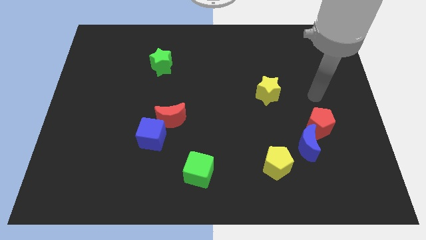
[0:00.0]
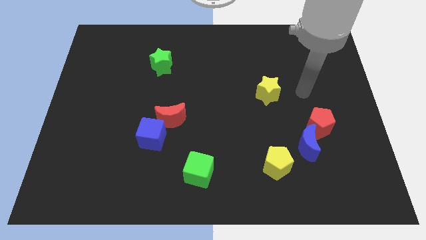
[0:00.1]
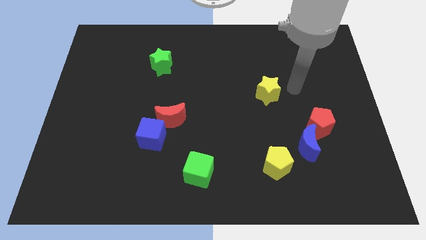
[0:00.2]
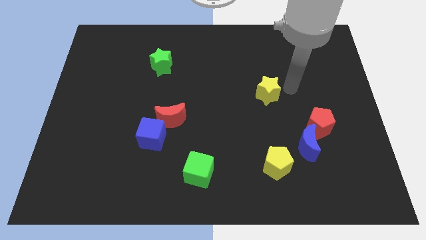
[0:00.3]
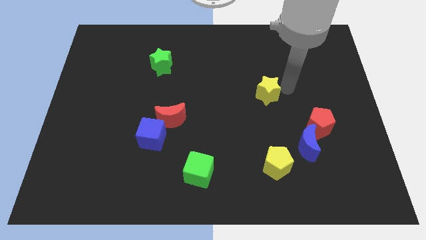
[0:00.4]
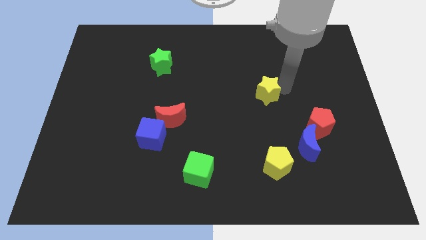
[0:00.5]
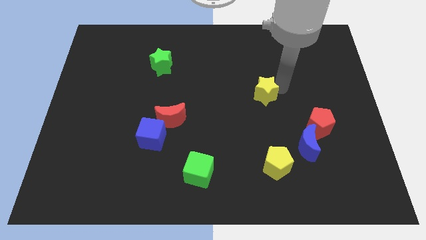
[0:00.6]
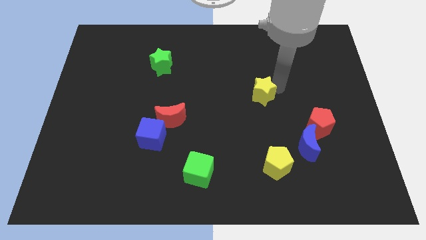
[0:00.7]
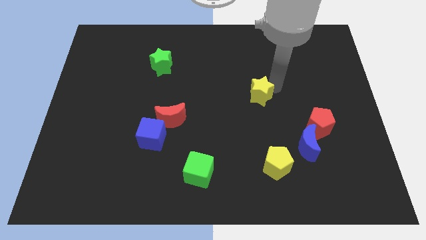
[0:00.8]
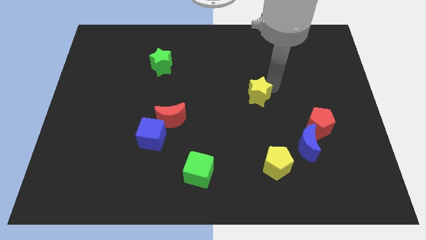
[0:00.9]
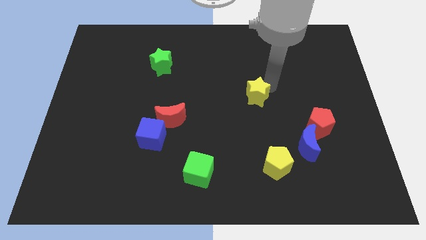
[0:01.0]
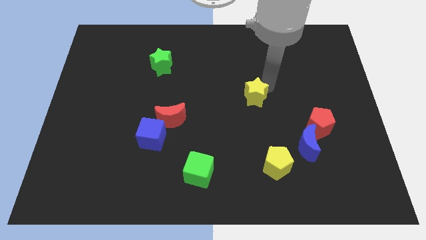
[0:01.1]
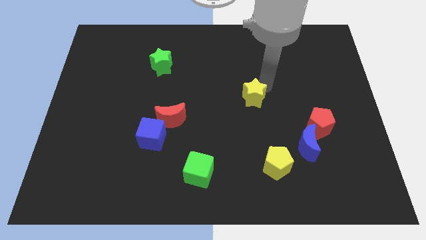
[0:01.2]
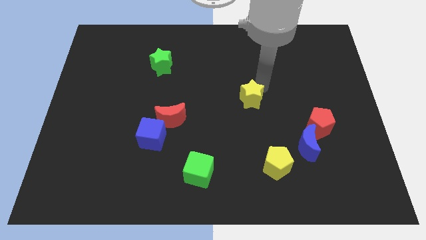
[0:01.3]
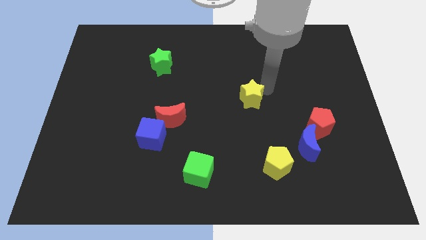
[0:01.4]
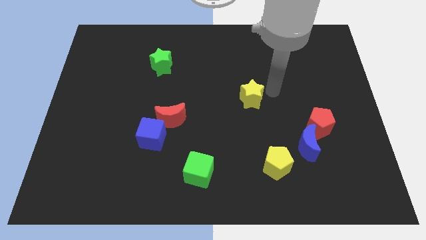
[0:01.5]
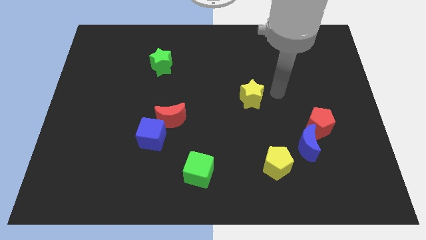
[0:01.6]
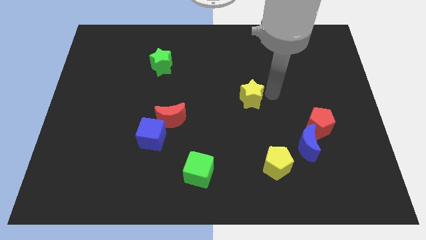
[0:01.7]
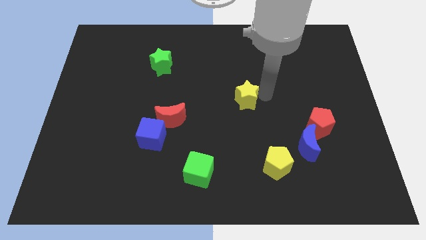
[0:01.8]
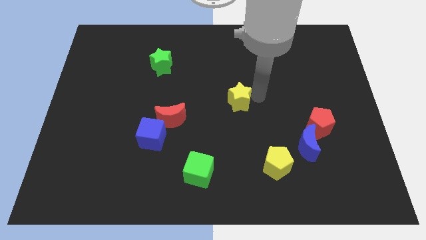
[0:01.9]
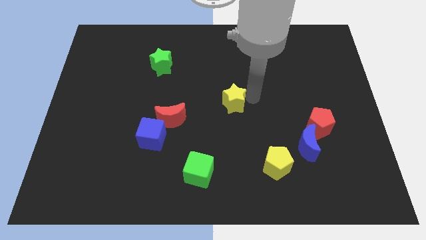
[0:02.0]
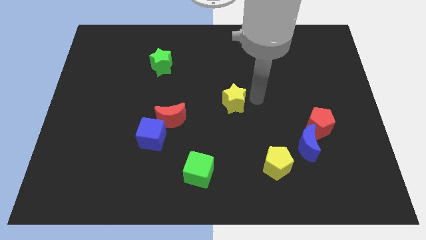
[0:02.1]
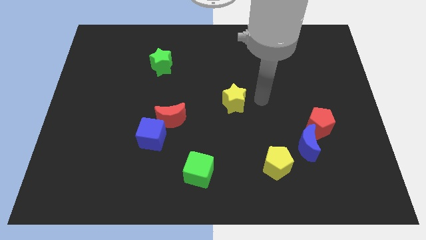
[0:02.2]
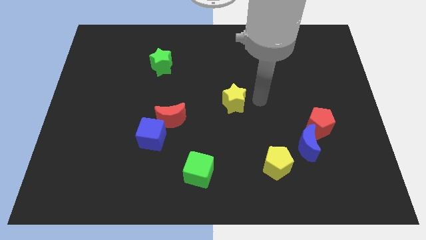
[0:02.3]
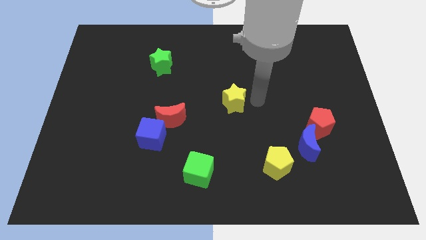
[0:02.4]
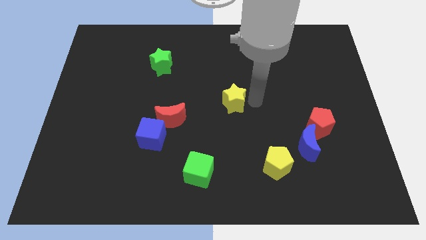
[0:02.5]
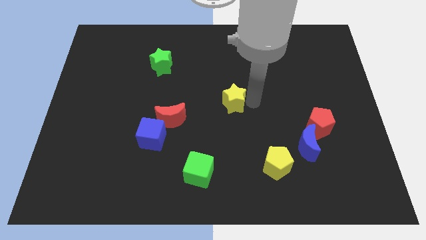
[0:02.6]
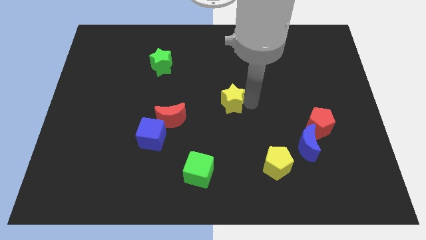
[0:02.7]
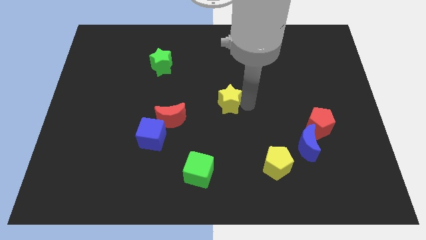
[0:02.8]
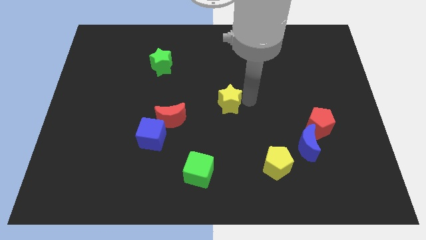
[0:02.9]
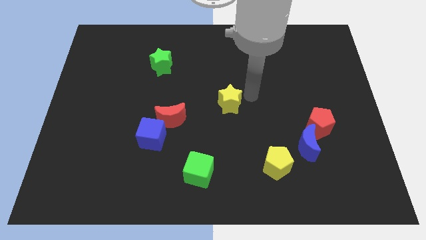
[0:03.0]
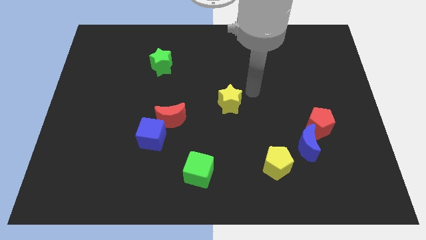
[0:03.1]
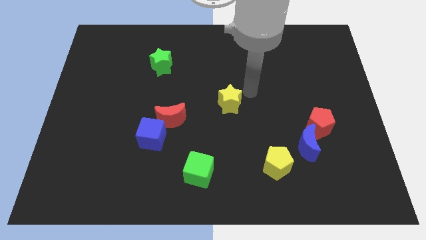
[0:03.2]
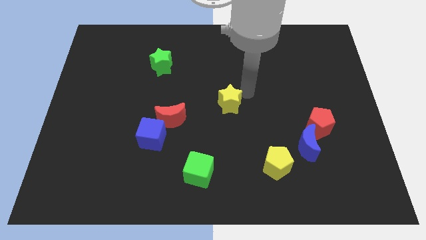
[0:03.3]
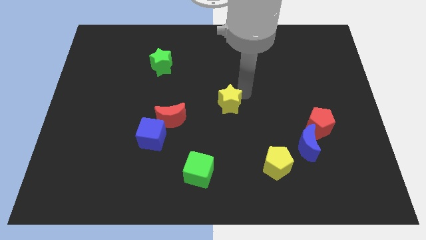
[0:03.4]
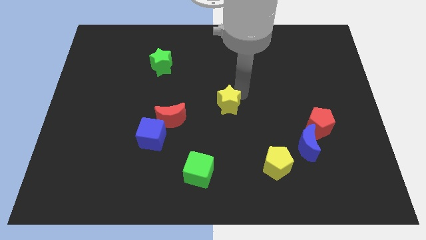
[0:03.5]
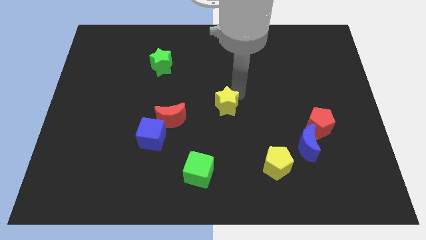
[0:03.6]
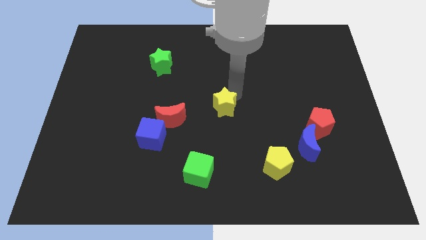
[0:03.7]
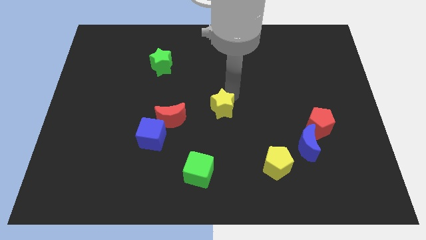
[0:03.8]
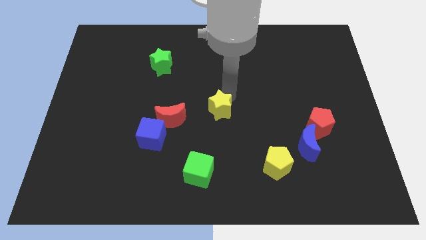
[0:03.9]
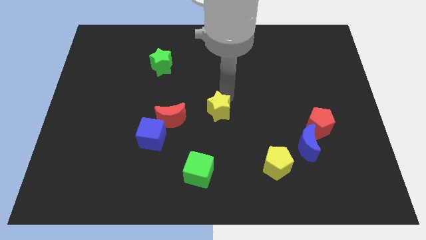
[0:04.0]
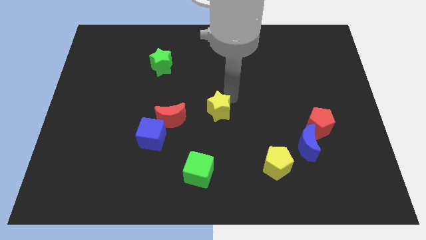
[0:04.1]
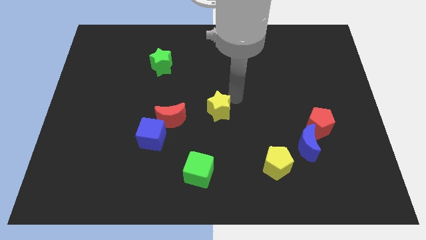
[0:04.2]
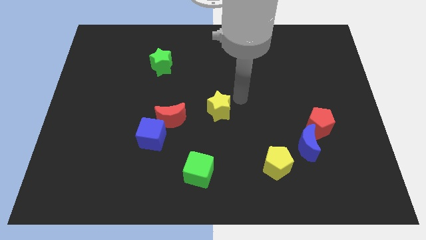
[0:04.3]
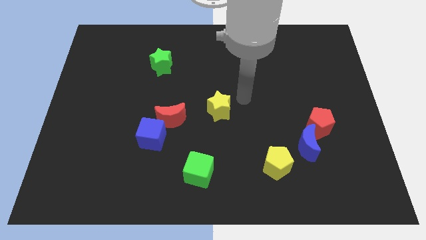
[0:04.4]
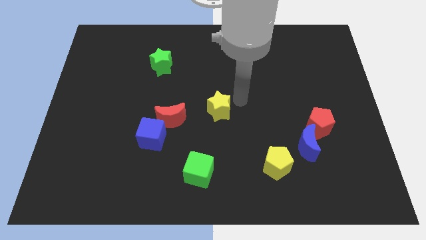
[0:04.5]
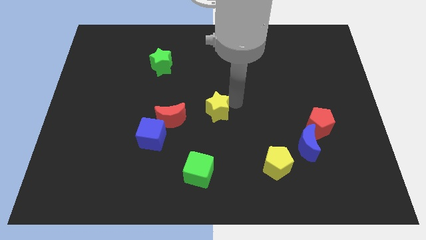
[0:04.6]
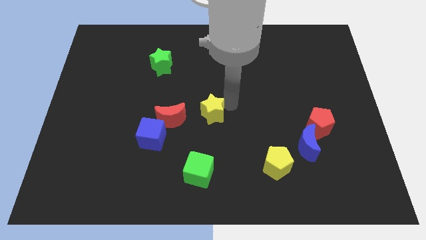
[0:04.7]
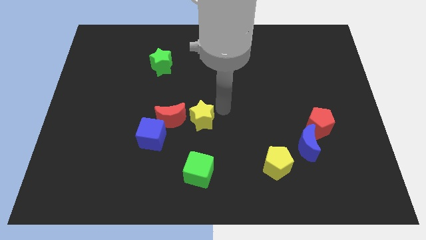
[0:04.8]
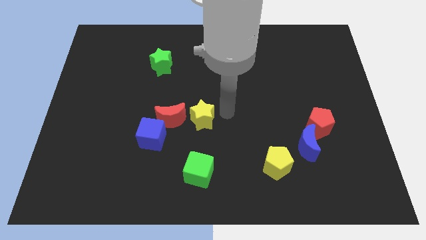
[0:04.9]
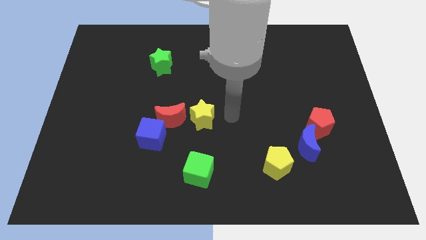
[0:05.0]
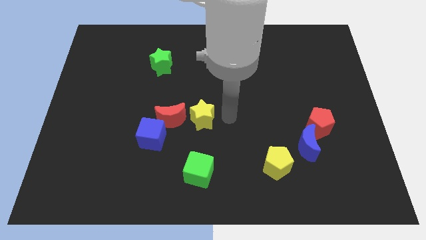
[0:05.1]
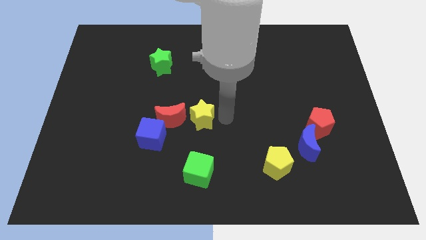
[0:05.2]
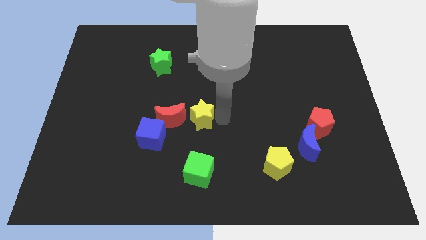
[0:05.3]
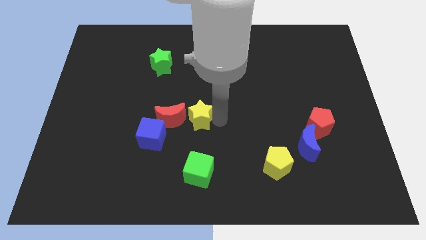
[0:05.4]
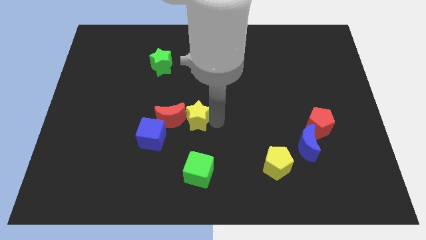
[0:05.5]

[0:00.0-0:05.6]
move the yellow star towards the red moon
